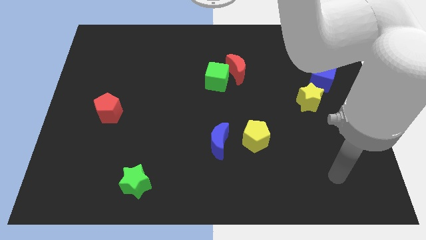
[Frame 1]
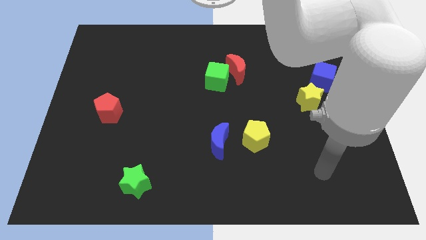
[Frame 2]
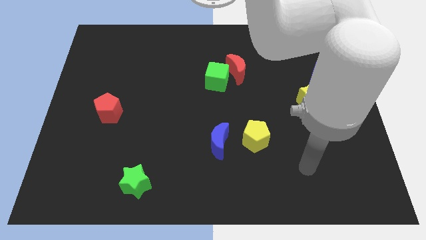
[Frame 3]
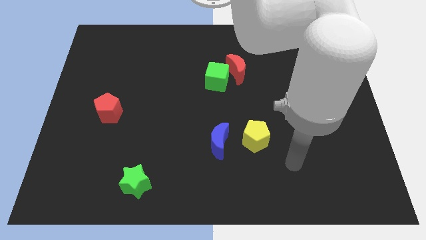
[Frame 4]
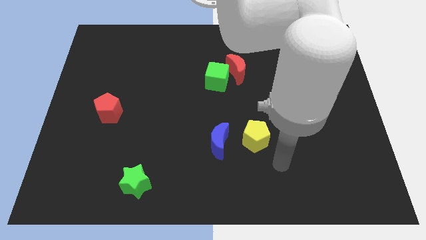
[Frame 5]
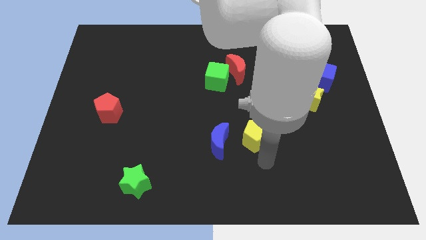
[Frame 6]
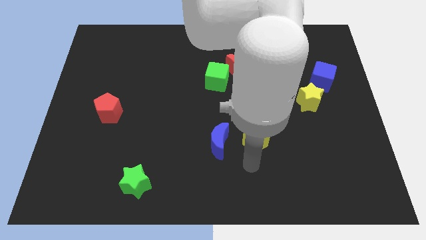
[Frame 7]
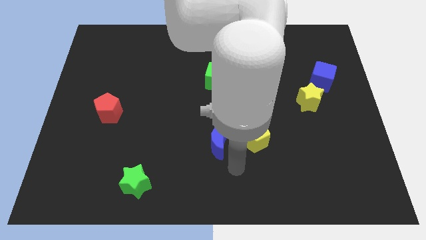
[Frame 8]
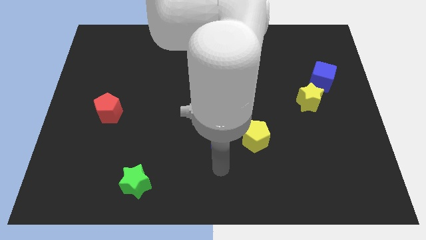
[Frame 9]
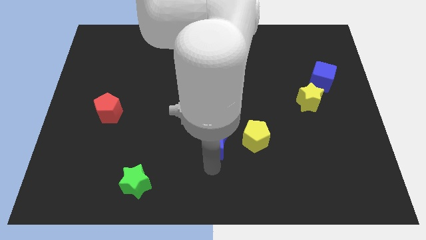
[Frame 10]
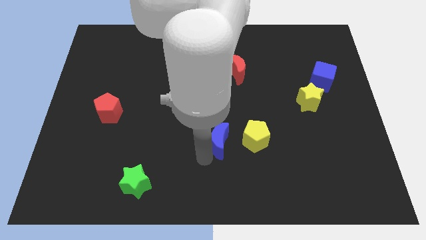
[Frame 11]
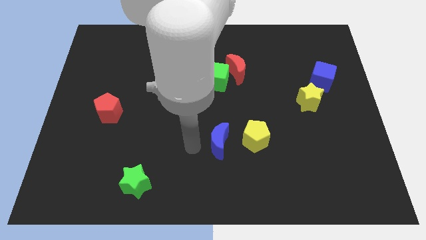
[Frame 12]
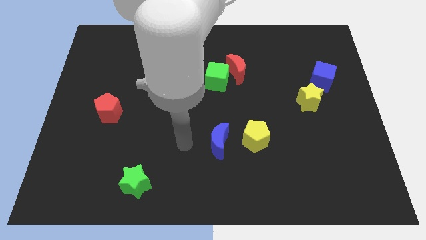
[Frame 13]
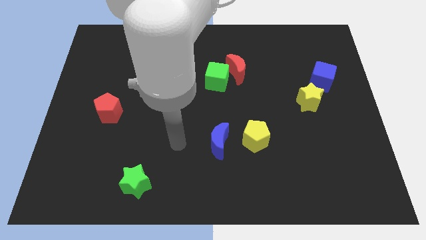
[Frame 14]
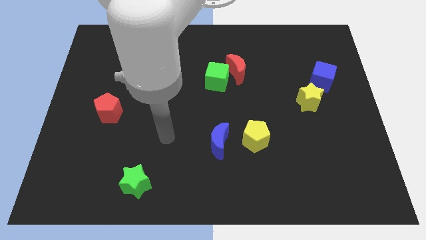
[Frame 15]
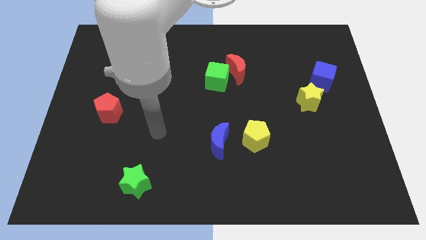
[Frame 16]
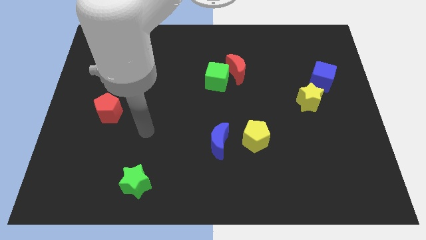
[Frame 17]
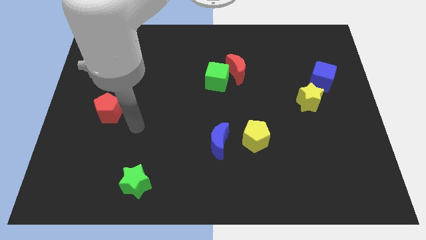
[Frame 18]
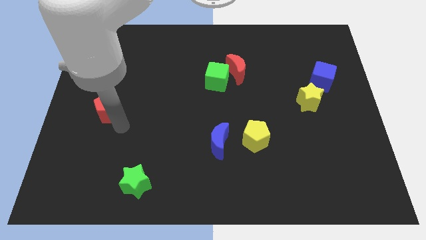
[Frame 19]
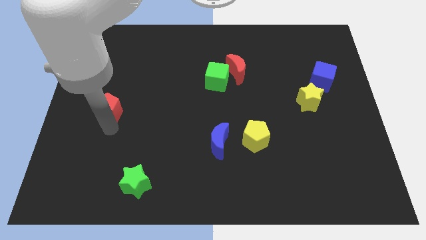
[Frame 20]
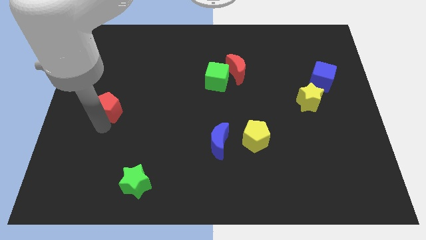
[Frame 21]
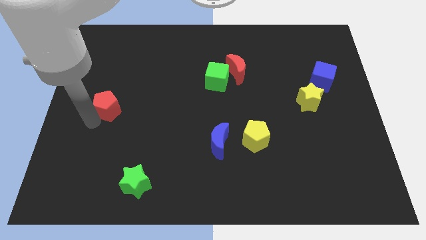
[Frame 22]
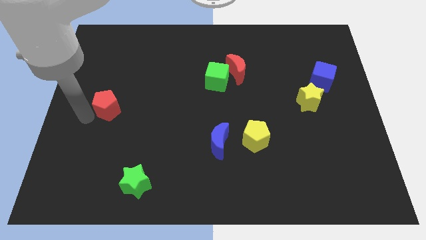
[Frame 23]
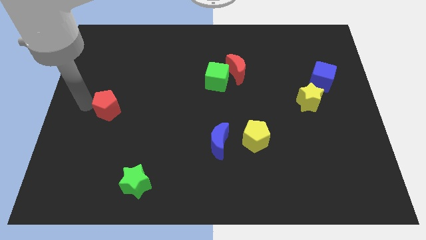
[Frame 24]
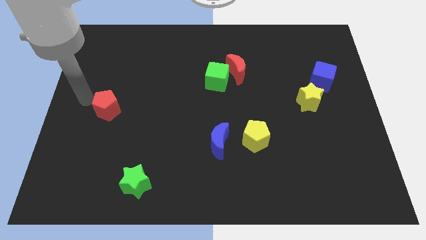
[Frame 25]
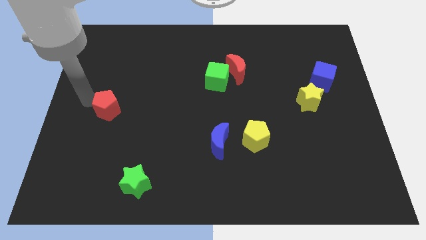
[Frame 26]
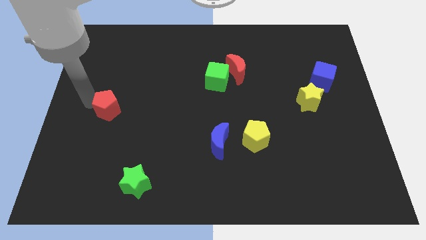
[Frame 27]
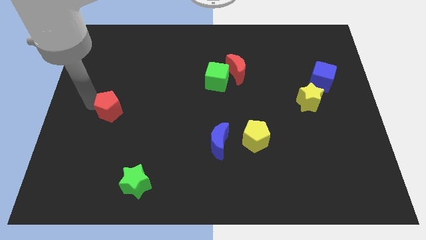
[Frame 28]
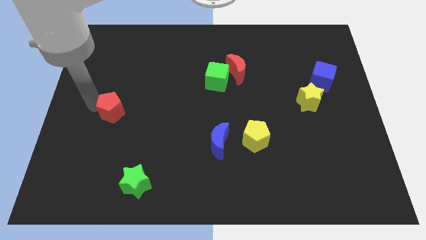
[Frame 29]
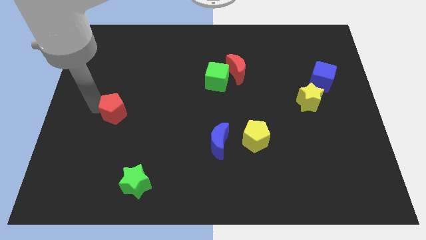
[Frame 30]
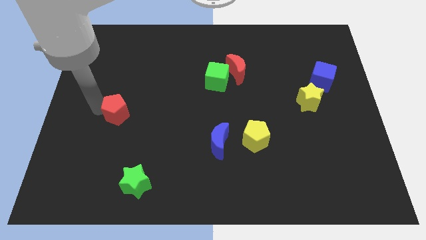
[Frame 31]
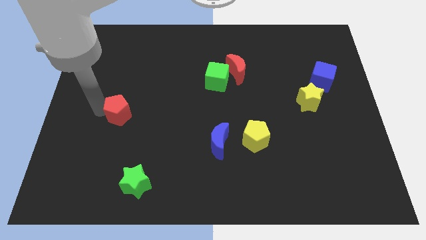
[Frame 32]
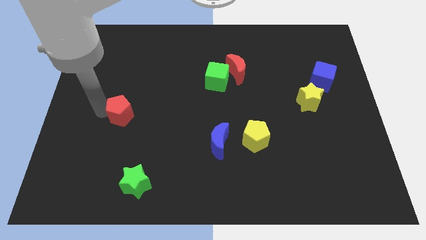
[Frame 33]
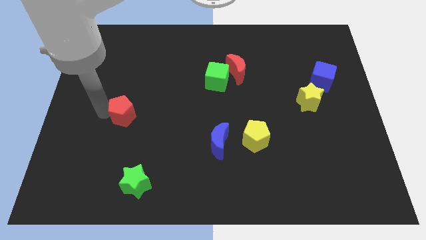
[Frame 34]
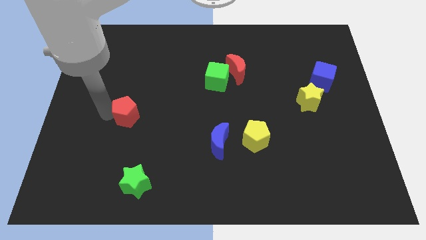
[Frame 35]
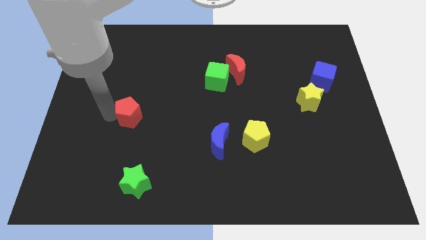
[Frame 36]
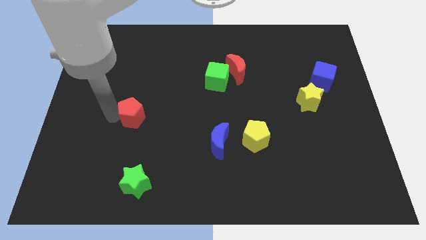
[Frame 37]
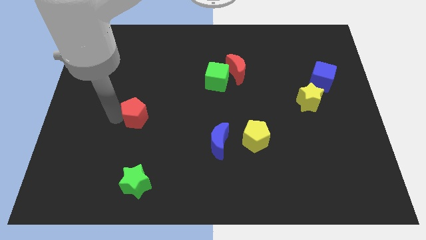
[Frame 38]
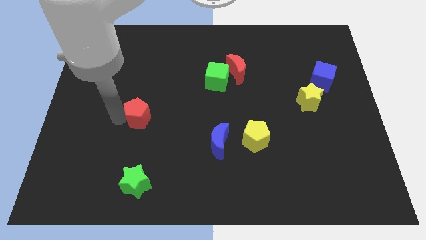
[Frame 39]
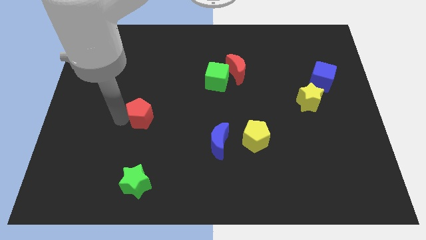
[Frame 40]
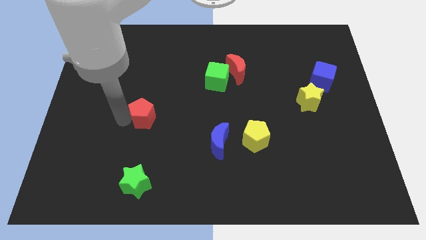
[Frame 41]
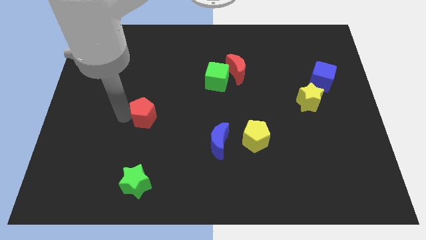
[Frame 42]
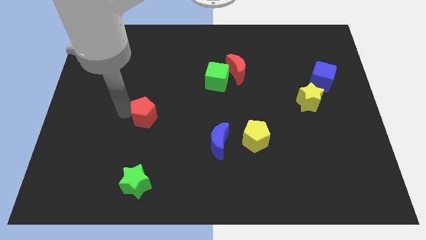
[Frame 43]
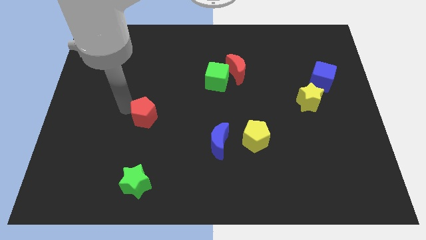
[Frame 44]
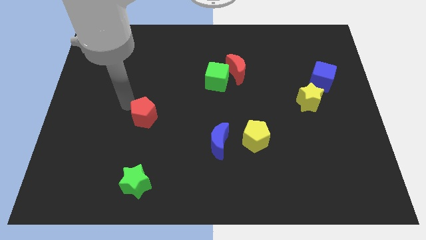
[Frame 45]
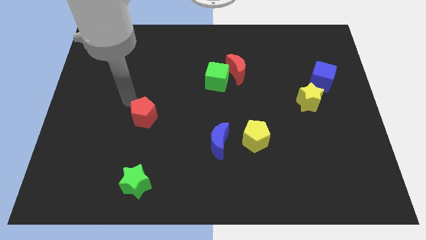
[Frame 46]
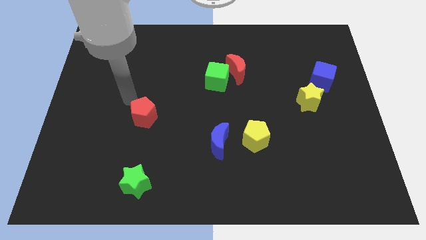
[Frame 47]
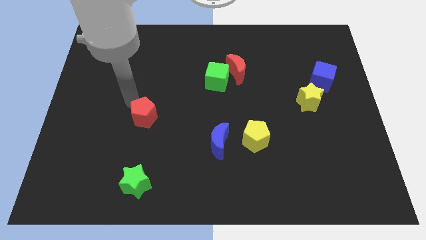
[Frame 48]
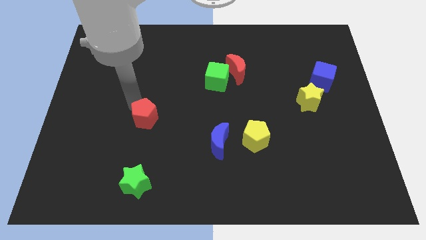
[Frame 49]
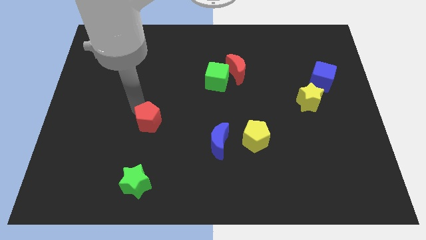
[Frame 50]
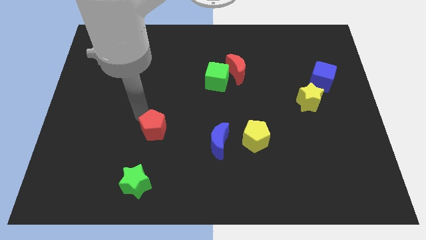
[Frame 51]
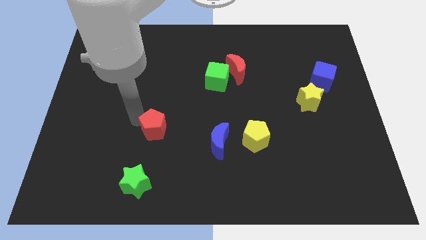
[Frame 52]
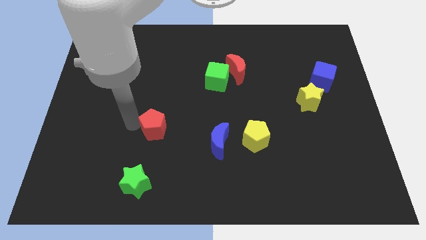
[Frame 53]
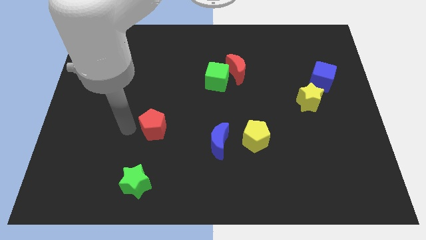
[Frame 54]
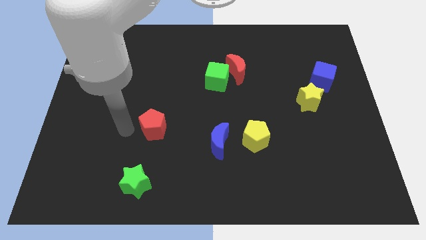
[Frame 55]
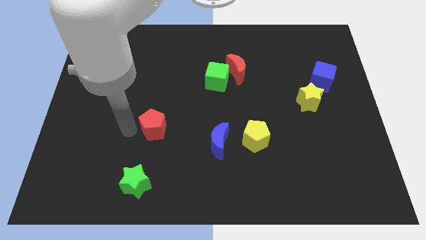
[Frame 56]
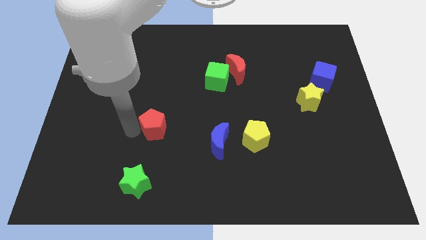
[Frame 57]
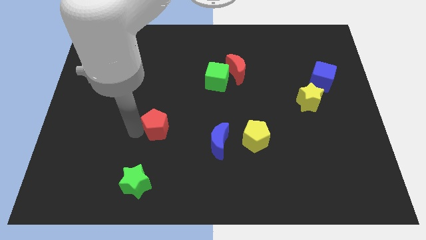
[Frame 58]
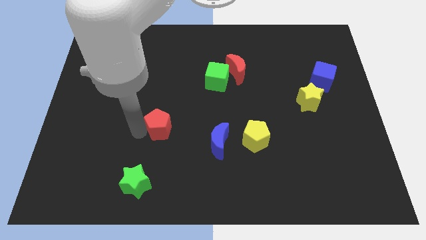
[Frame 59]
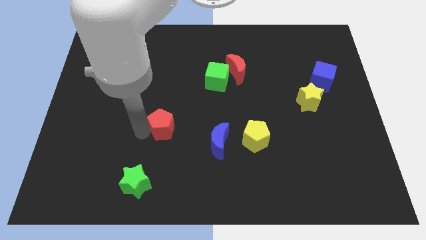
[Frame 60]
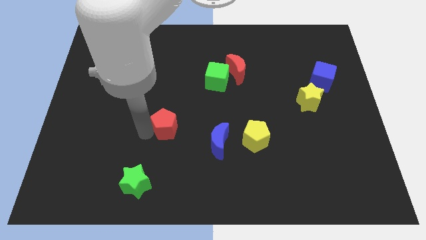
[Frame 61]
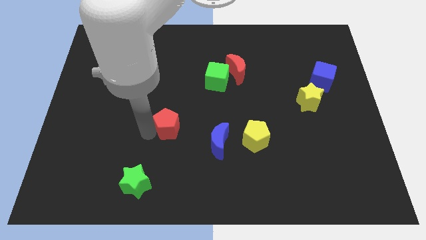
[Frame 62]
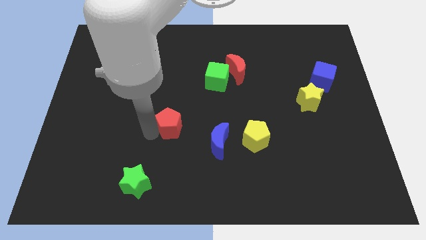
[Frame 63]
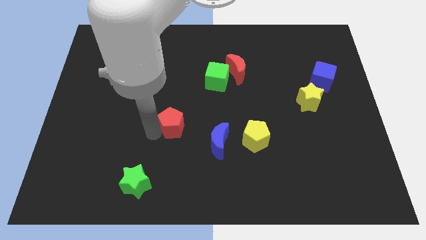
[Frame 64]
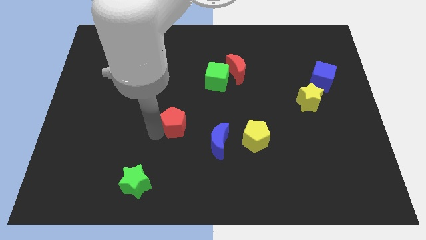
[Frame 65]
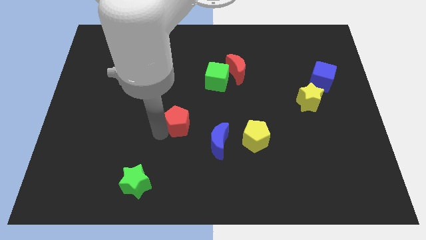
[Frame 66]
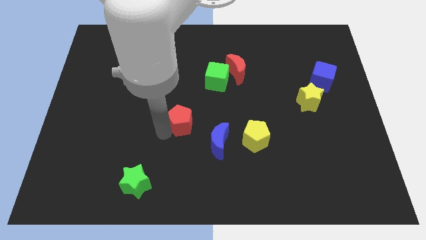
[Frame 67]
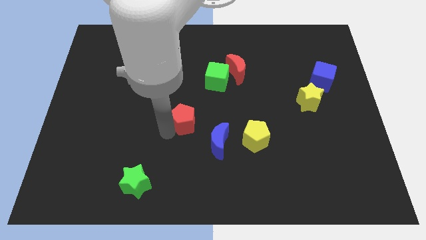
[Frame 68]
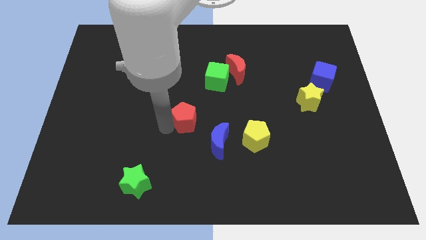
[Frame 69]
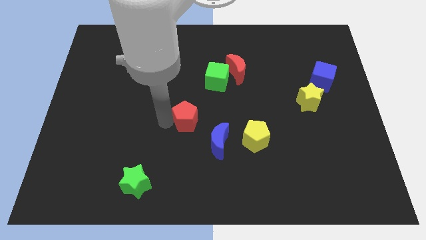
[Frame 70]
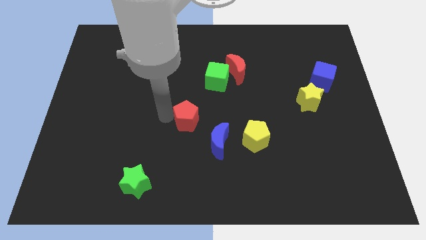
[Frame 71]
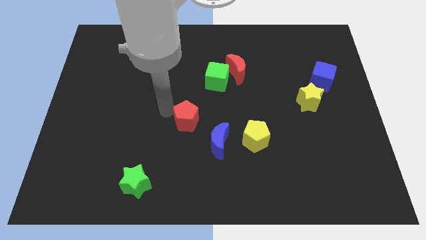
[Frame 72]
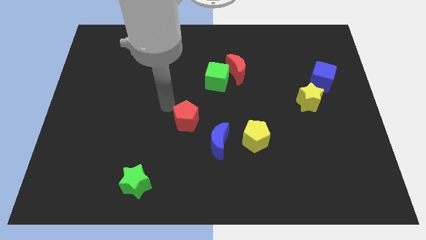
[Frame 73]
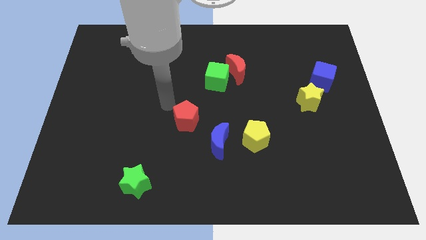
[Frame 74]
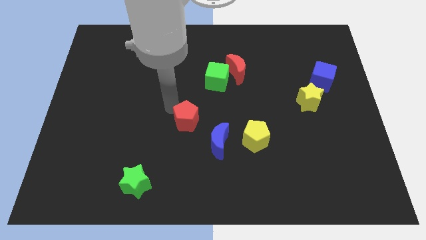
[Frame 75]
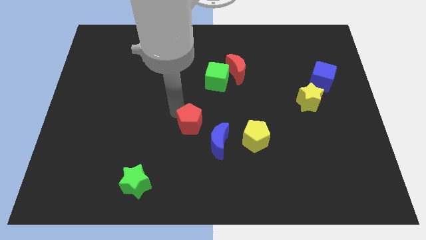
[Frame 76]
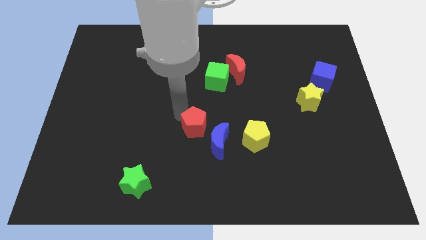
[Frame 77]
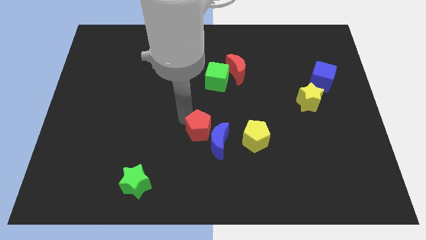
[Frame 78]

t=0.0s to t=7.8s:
push the red pentagon next to the blue moon
